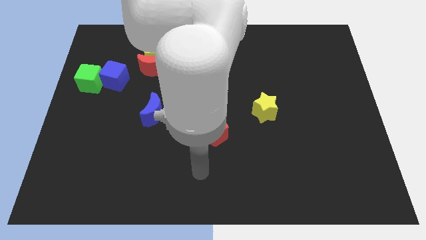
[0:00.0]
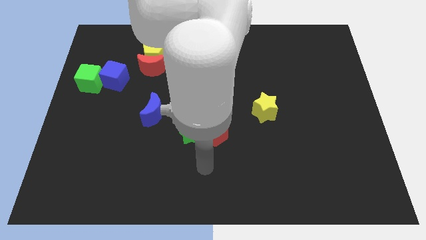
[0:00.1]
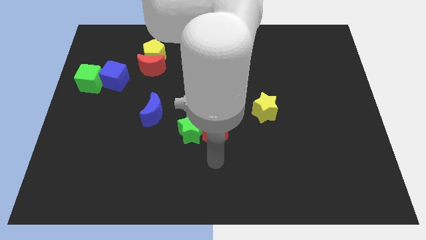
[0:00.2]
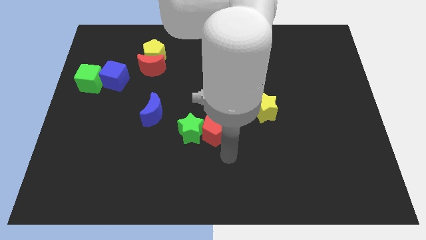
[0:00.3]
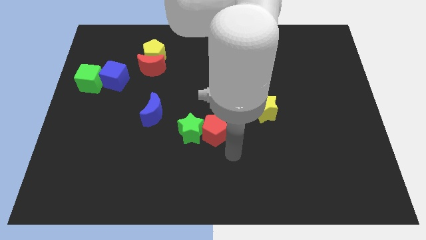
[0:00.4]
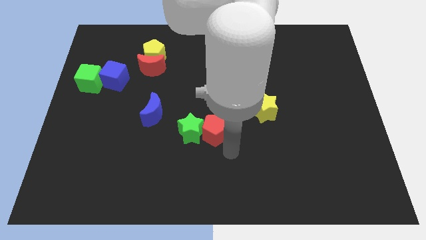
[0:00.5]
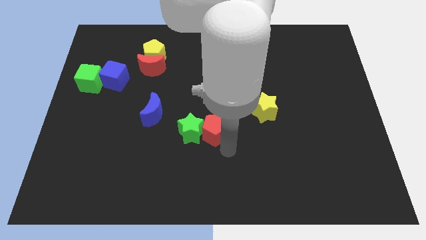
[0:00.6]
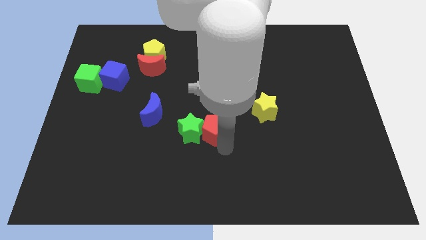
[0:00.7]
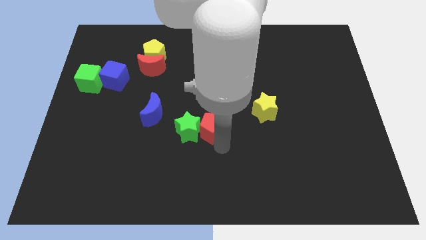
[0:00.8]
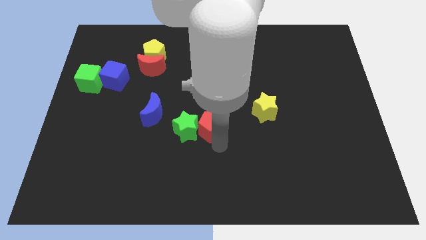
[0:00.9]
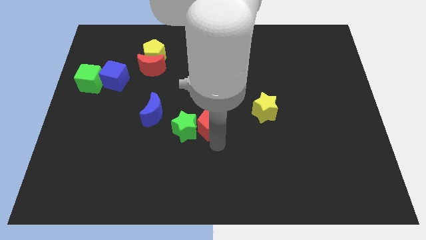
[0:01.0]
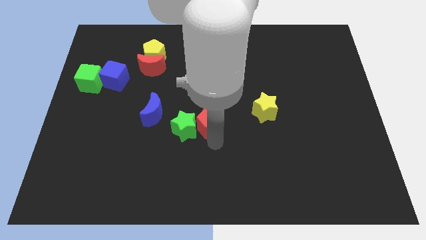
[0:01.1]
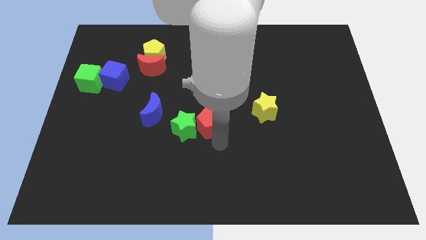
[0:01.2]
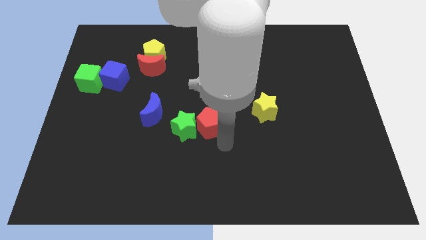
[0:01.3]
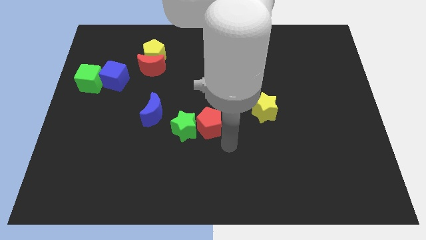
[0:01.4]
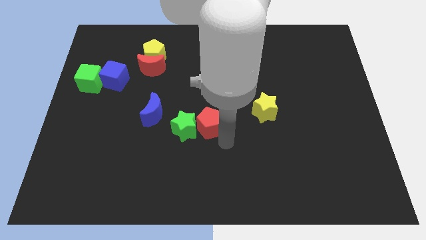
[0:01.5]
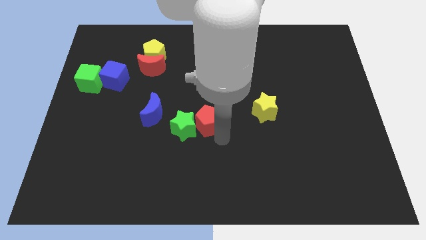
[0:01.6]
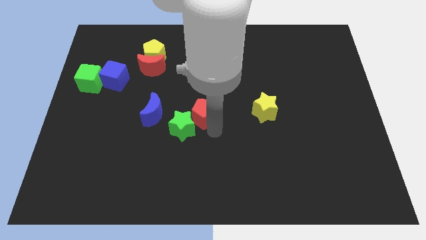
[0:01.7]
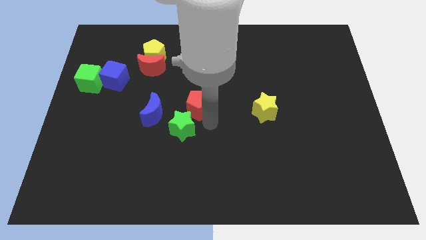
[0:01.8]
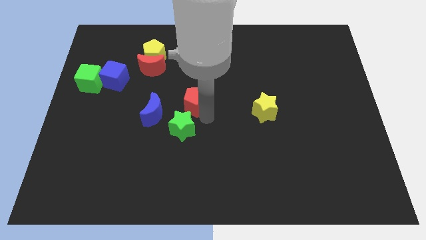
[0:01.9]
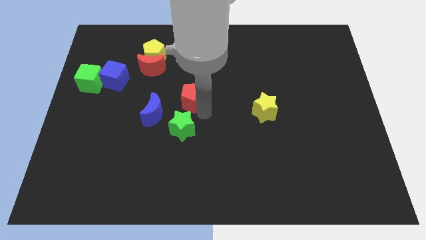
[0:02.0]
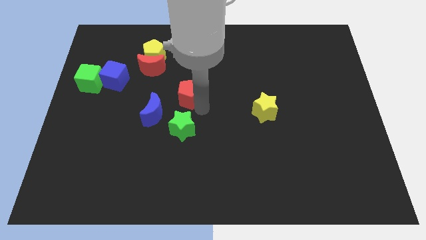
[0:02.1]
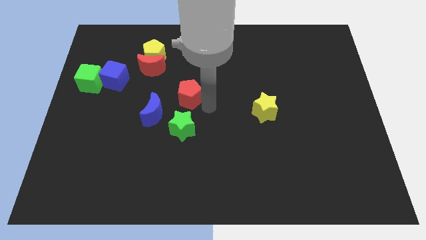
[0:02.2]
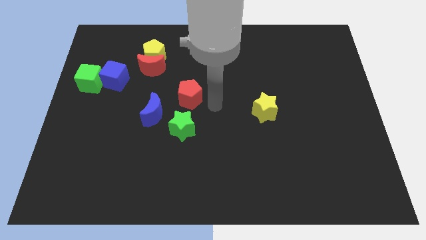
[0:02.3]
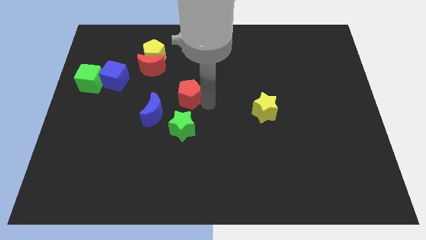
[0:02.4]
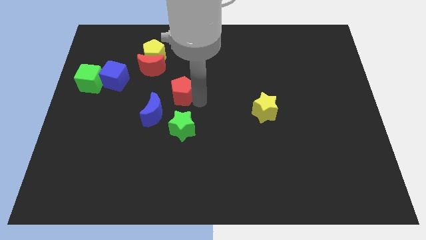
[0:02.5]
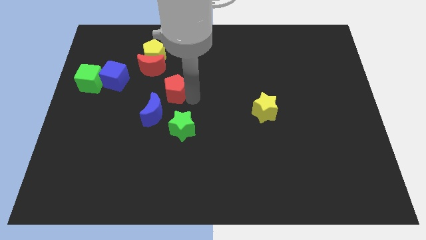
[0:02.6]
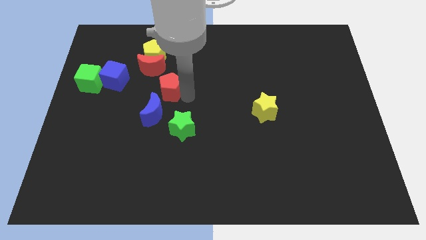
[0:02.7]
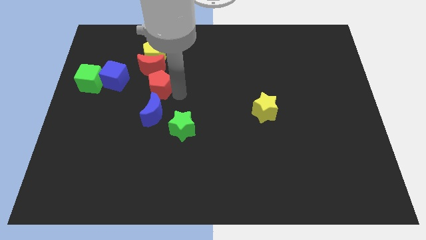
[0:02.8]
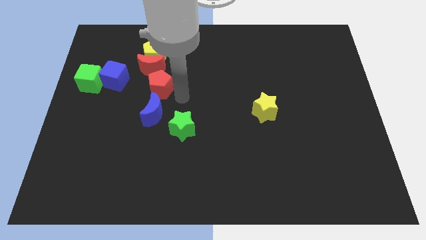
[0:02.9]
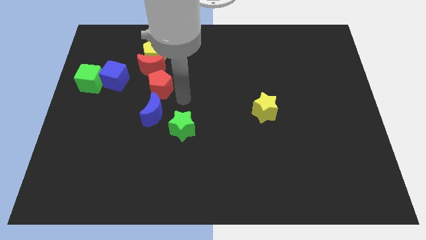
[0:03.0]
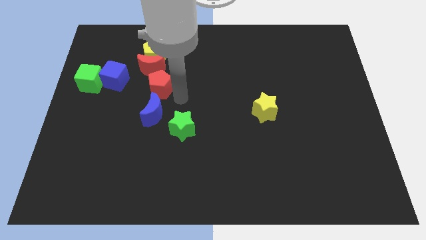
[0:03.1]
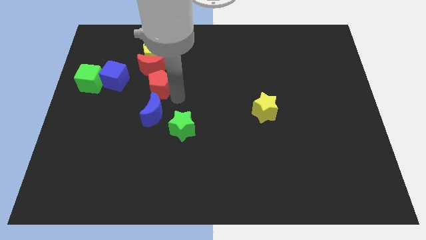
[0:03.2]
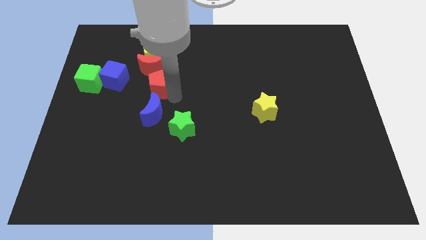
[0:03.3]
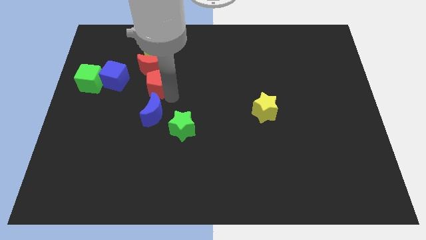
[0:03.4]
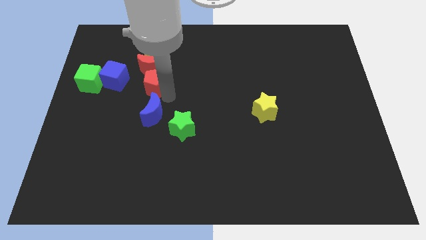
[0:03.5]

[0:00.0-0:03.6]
move the red pentagon upwards and then to the left

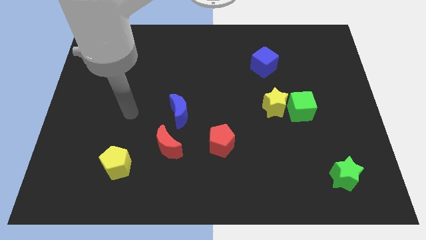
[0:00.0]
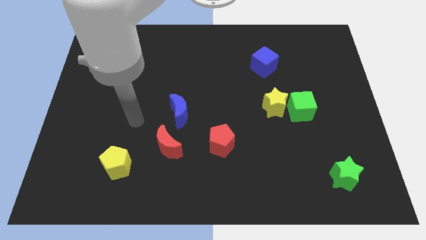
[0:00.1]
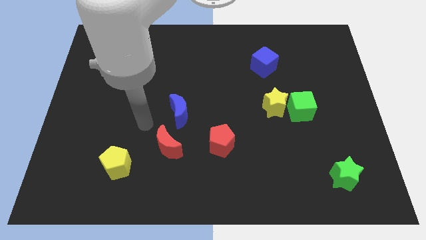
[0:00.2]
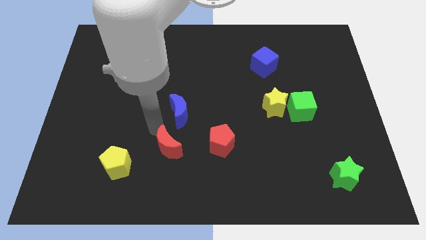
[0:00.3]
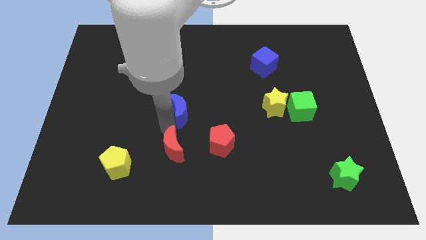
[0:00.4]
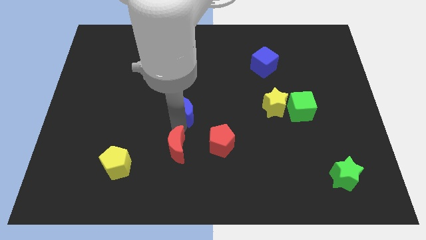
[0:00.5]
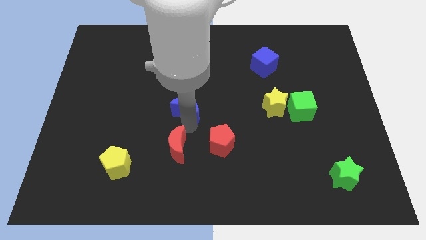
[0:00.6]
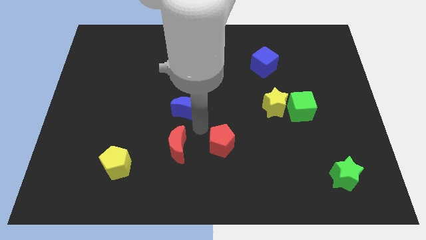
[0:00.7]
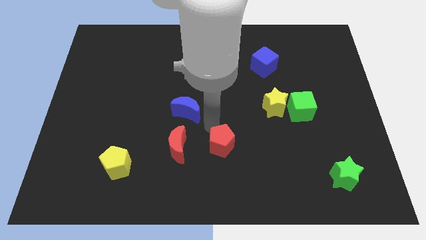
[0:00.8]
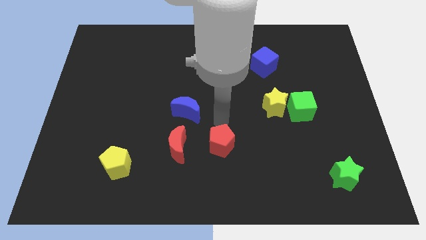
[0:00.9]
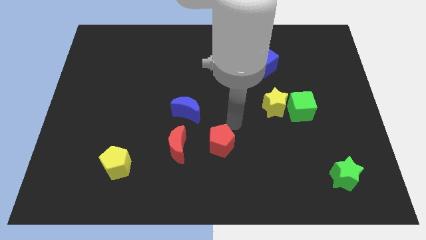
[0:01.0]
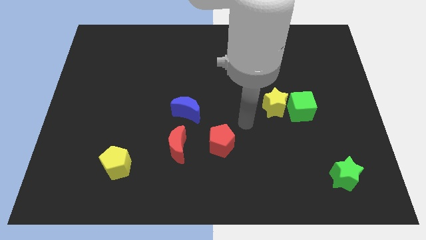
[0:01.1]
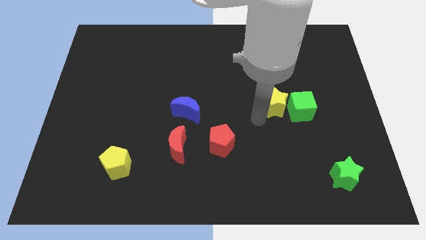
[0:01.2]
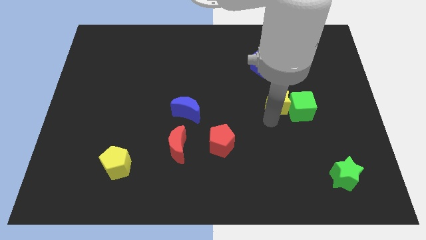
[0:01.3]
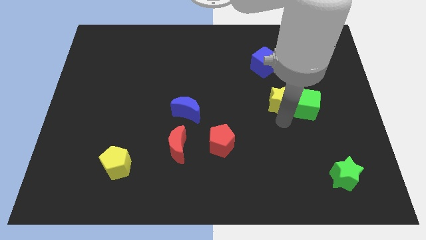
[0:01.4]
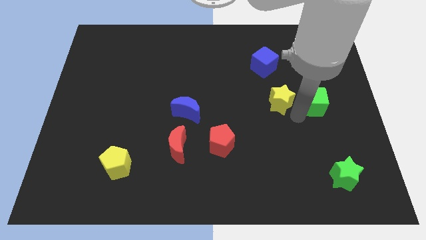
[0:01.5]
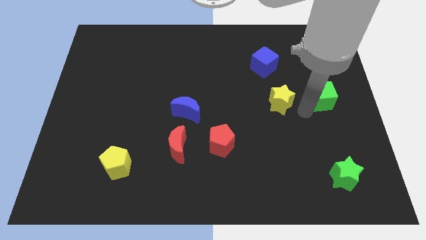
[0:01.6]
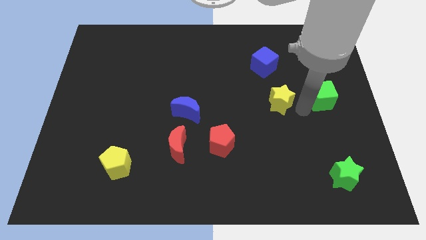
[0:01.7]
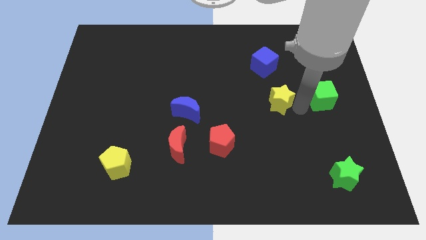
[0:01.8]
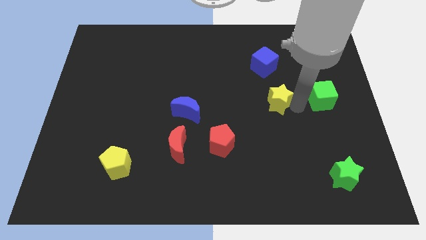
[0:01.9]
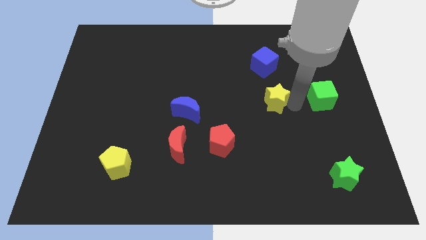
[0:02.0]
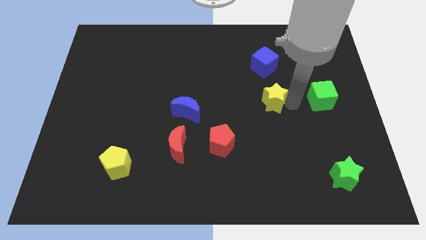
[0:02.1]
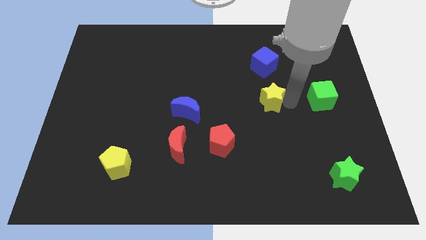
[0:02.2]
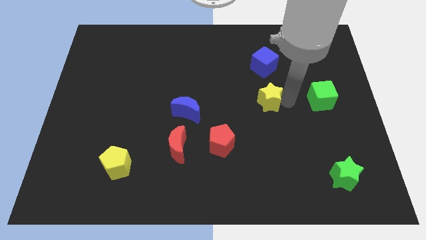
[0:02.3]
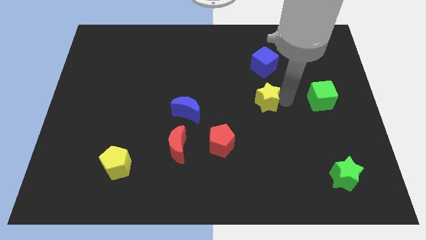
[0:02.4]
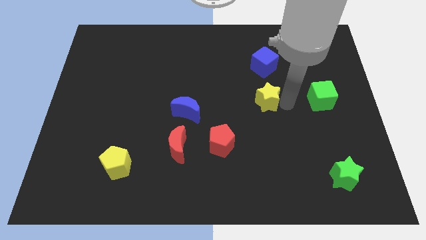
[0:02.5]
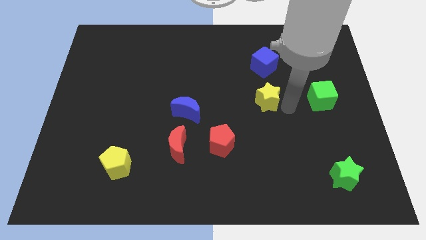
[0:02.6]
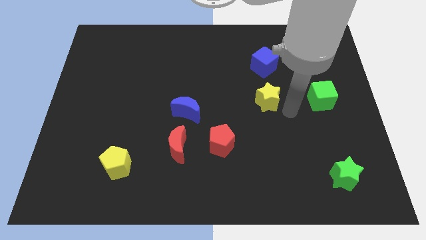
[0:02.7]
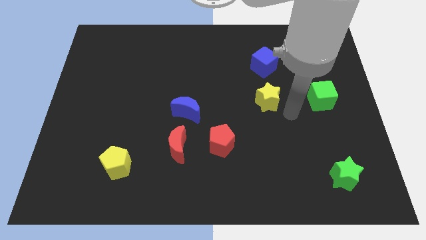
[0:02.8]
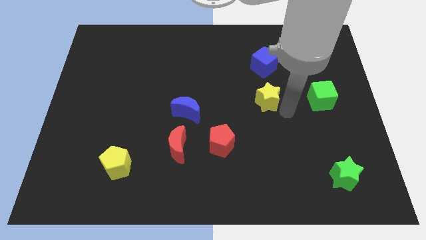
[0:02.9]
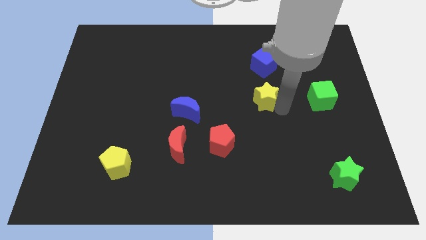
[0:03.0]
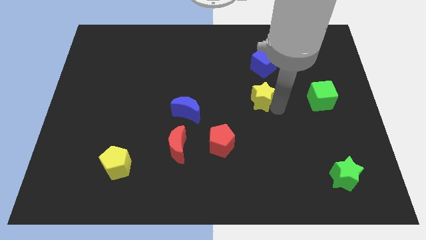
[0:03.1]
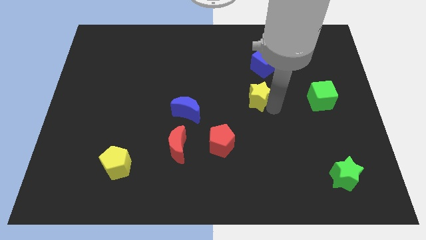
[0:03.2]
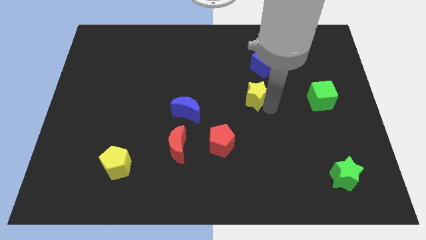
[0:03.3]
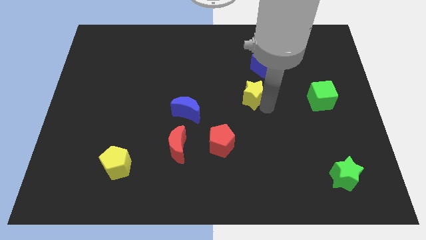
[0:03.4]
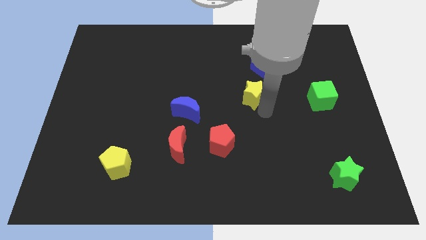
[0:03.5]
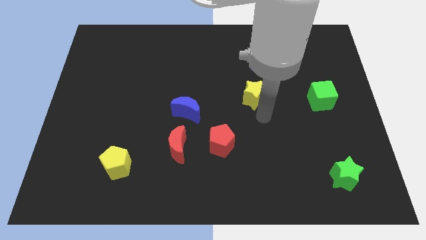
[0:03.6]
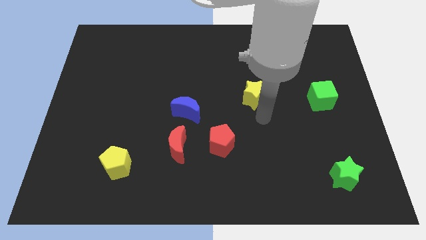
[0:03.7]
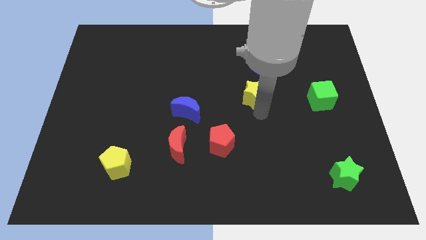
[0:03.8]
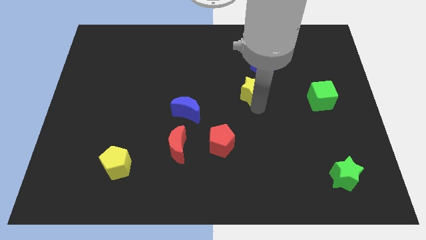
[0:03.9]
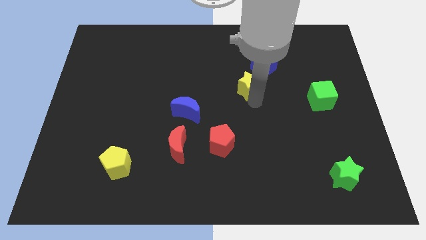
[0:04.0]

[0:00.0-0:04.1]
slightly push the yellow star up and left diagonally

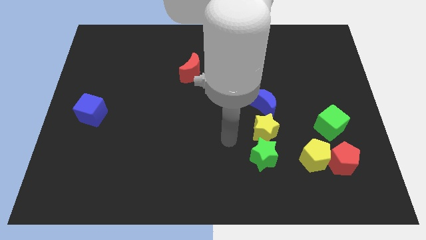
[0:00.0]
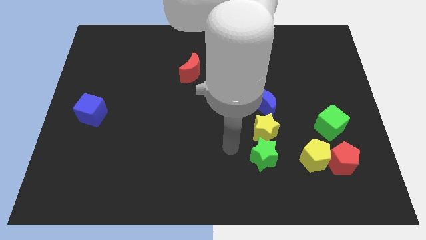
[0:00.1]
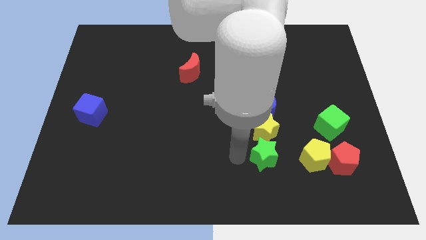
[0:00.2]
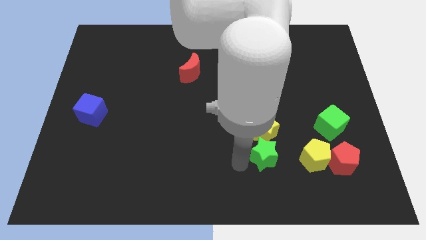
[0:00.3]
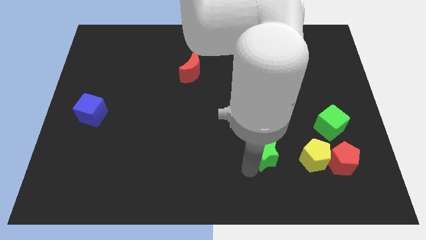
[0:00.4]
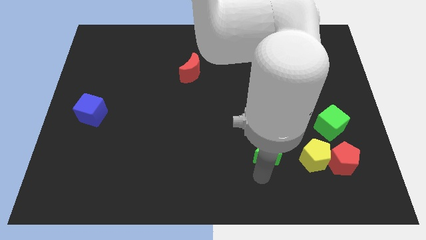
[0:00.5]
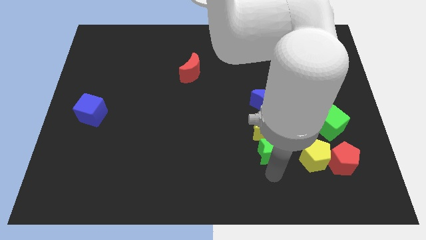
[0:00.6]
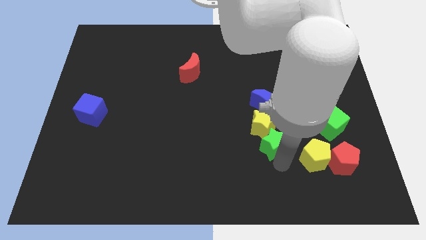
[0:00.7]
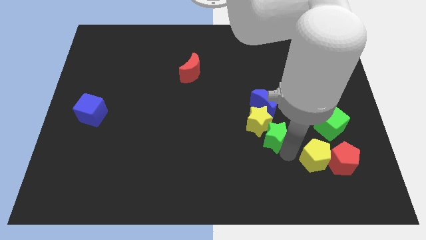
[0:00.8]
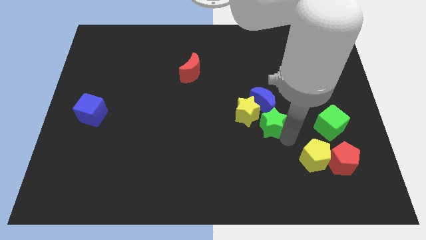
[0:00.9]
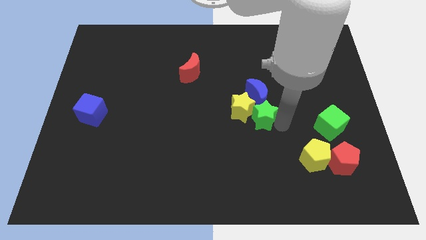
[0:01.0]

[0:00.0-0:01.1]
slightly slide the yellow star diagonally up and to the left
